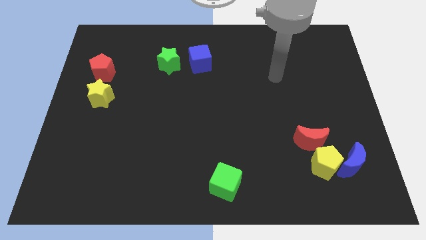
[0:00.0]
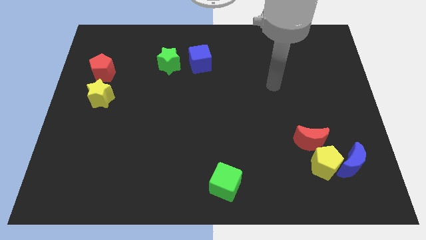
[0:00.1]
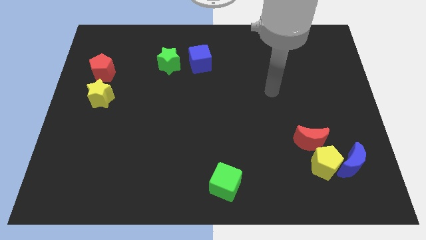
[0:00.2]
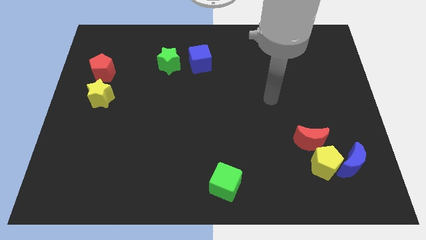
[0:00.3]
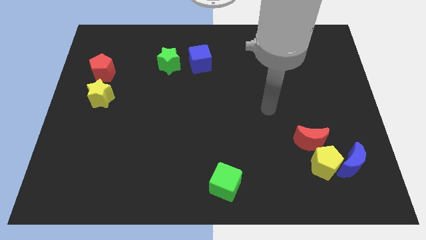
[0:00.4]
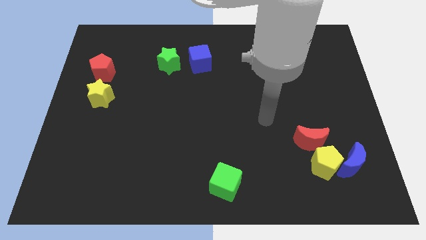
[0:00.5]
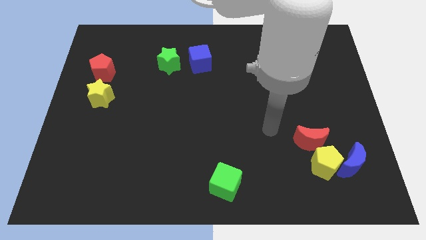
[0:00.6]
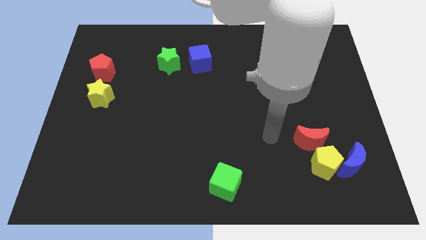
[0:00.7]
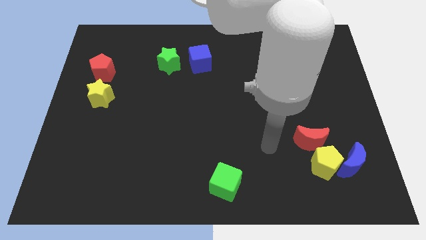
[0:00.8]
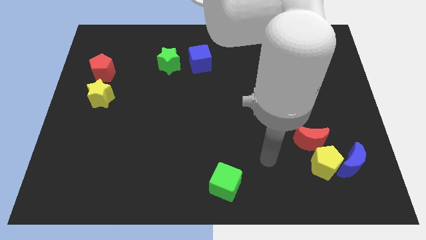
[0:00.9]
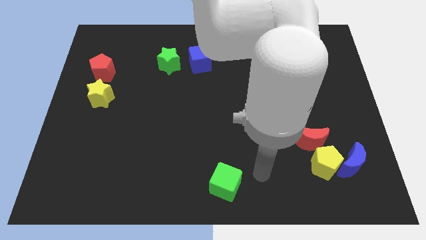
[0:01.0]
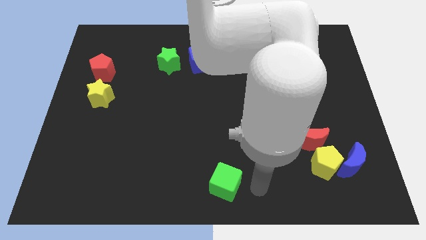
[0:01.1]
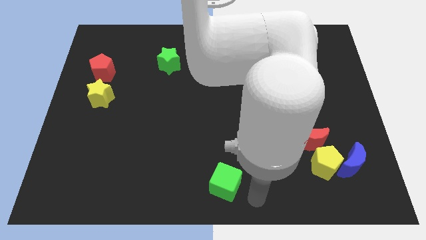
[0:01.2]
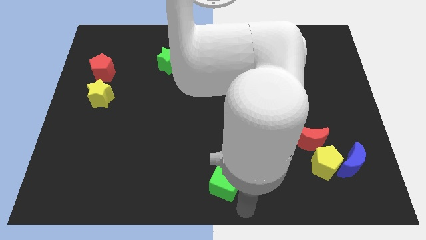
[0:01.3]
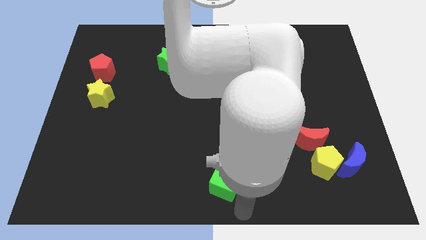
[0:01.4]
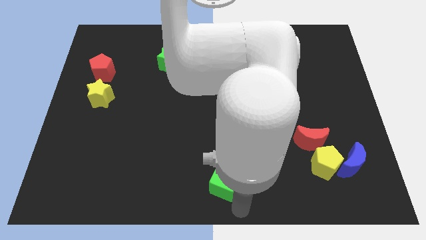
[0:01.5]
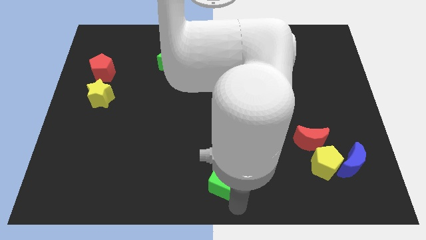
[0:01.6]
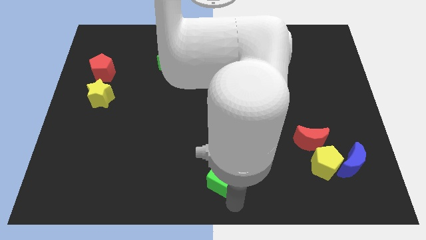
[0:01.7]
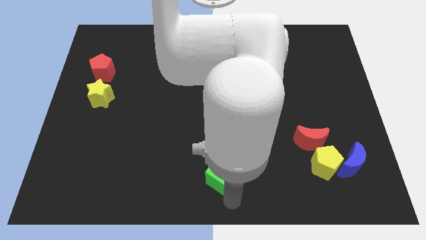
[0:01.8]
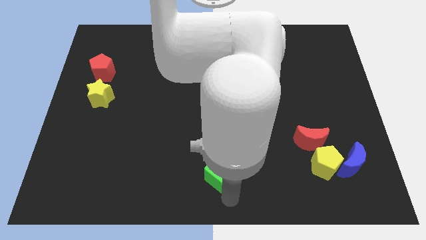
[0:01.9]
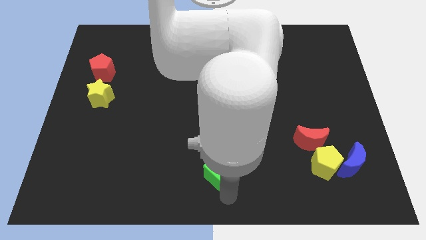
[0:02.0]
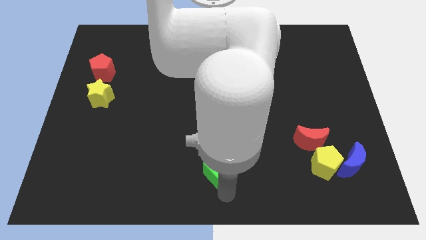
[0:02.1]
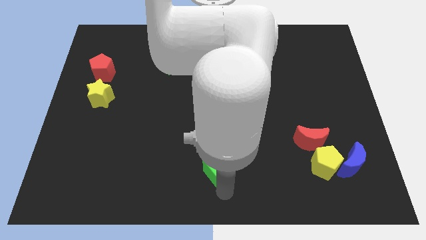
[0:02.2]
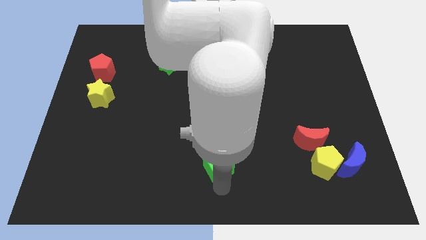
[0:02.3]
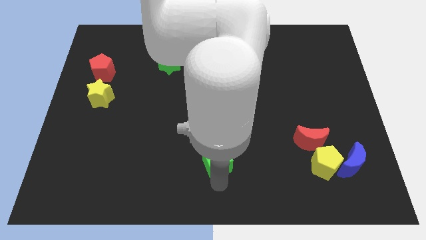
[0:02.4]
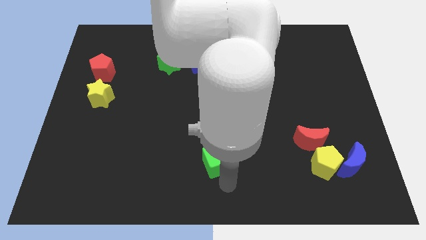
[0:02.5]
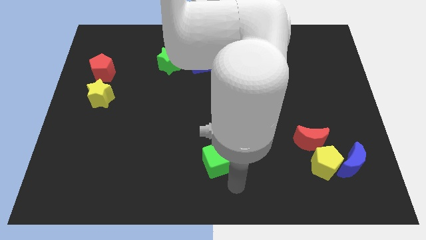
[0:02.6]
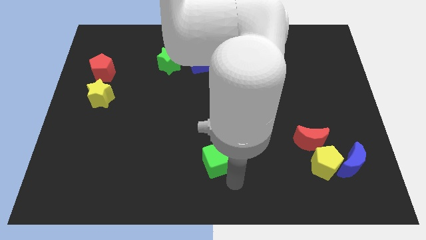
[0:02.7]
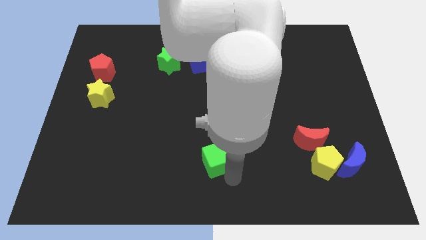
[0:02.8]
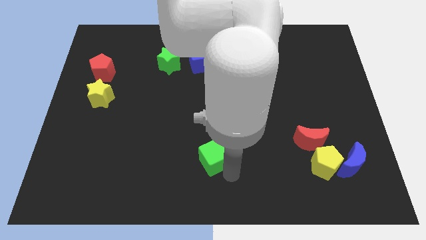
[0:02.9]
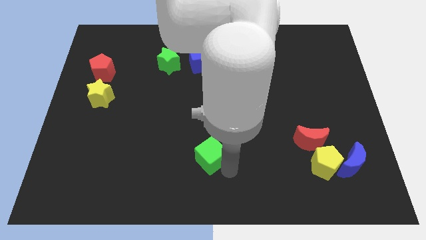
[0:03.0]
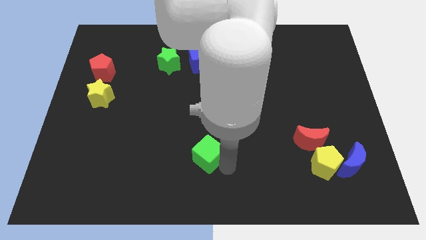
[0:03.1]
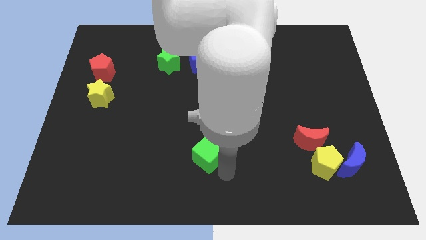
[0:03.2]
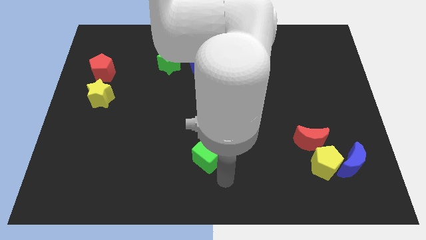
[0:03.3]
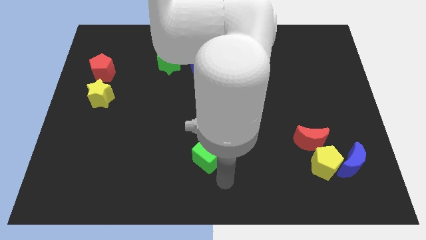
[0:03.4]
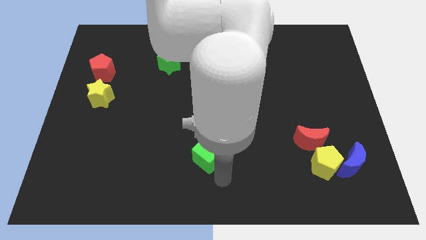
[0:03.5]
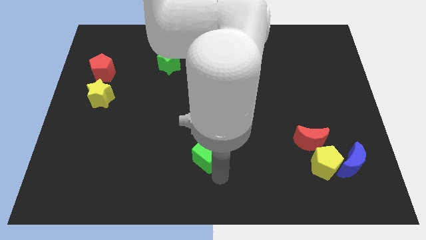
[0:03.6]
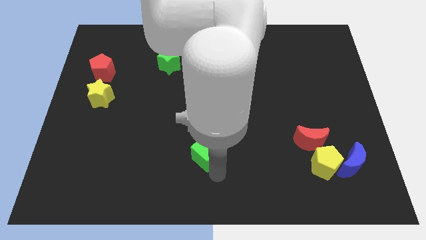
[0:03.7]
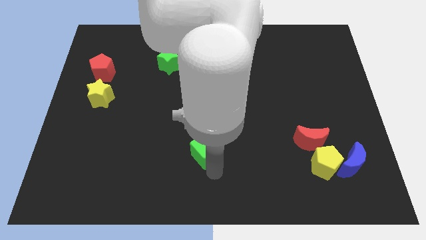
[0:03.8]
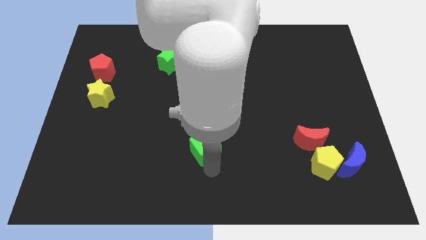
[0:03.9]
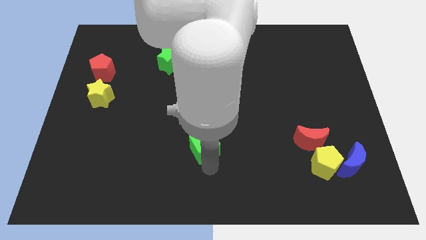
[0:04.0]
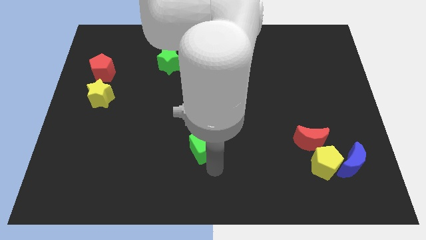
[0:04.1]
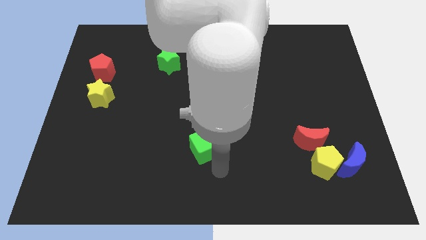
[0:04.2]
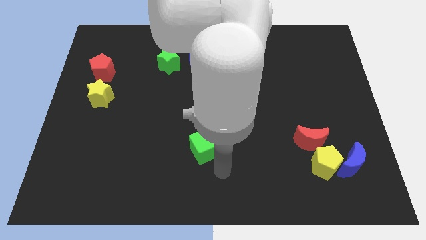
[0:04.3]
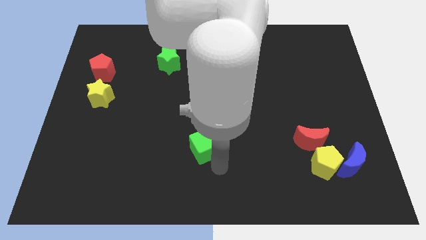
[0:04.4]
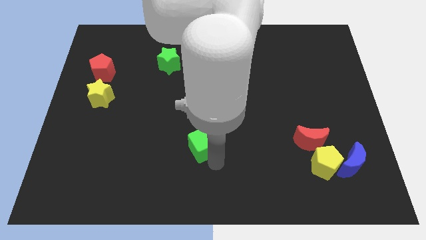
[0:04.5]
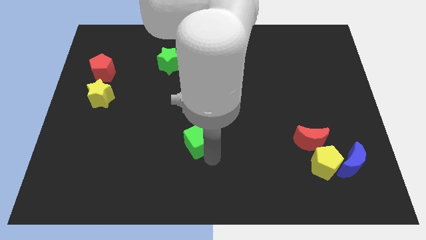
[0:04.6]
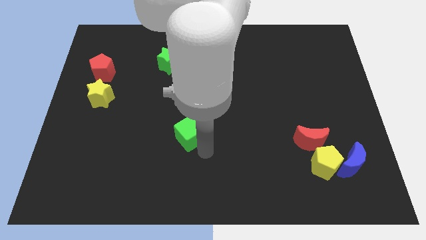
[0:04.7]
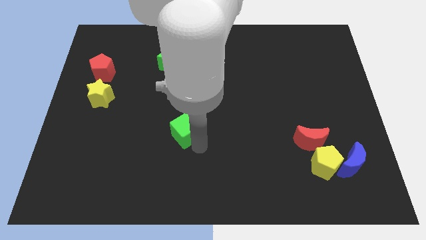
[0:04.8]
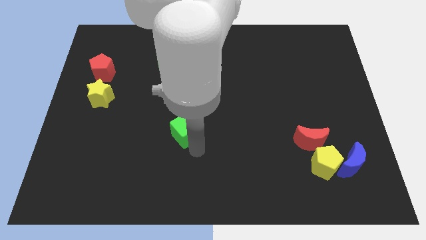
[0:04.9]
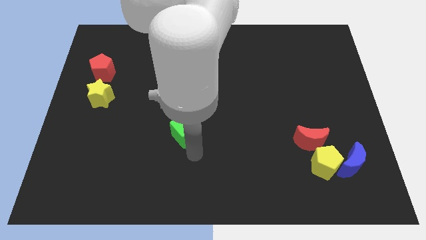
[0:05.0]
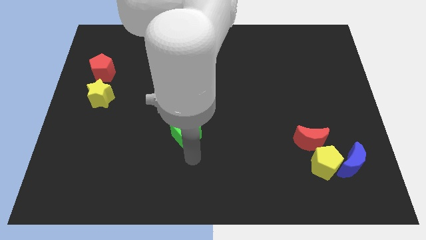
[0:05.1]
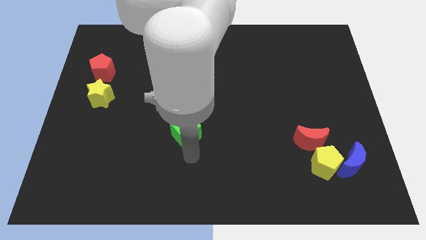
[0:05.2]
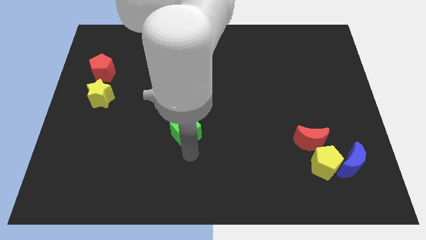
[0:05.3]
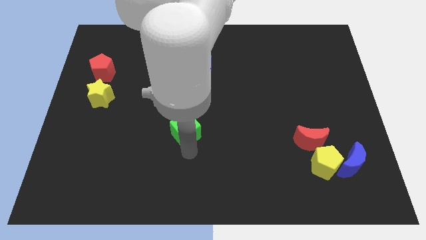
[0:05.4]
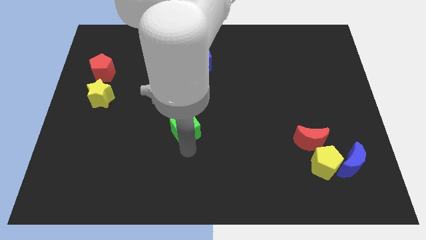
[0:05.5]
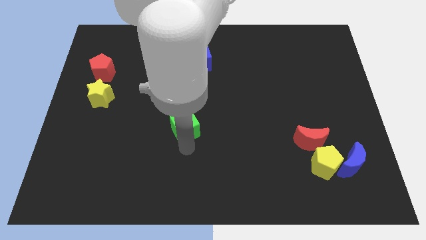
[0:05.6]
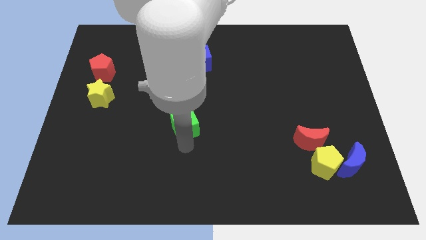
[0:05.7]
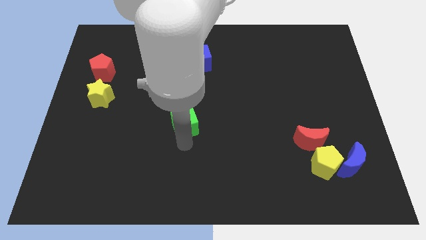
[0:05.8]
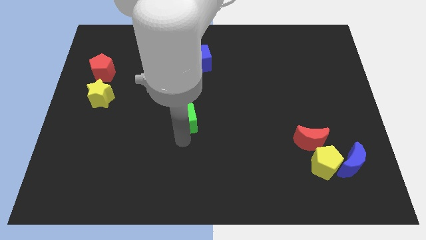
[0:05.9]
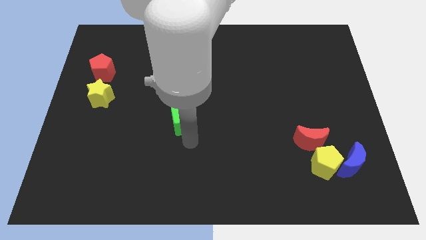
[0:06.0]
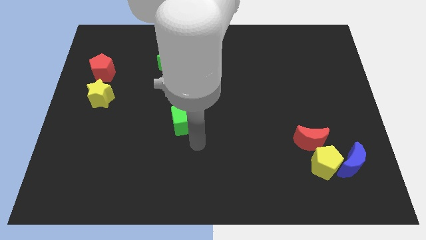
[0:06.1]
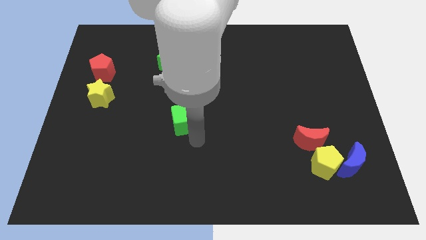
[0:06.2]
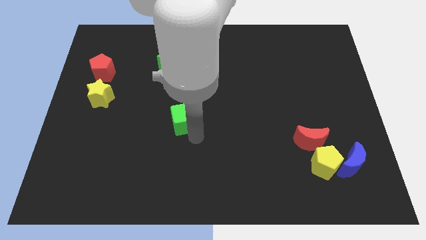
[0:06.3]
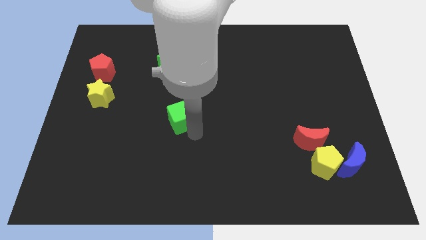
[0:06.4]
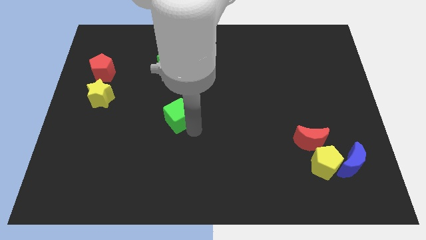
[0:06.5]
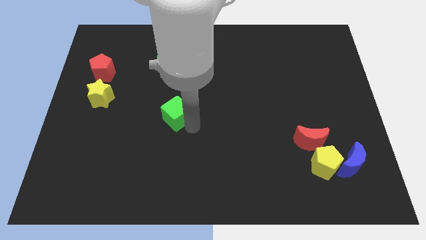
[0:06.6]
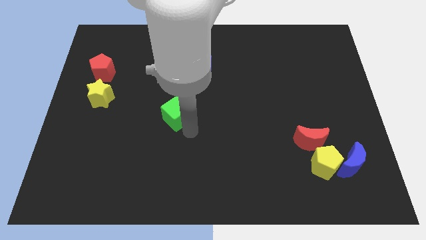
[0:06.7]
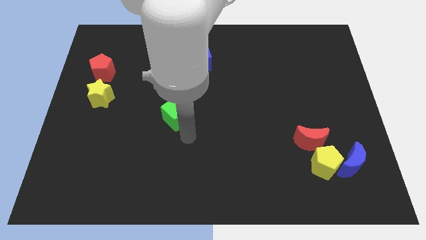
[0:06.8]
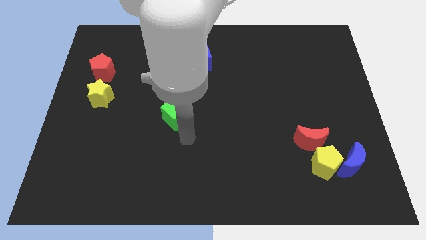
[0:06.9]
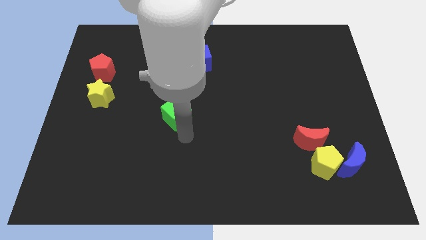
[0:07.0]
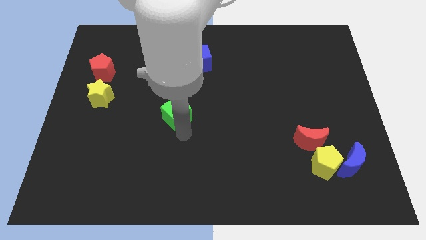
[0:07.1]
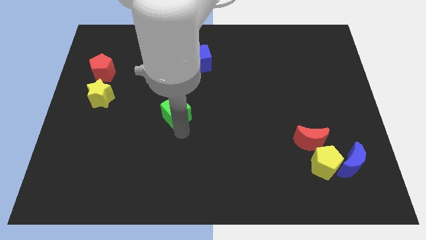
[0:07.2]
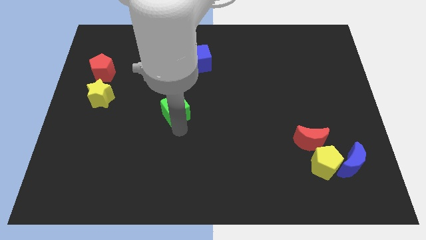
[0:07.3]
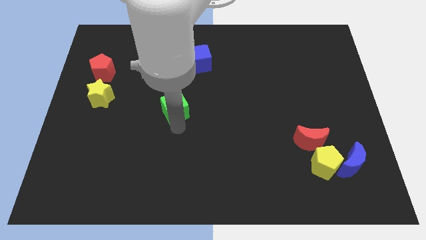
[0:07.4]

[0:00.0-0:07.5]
push the green cube below the green star
